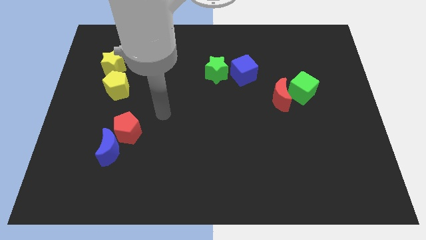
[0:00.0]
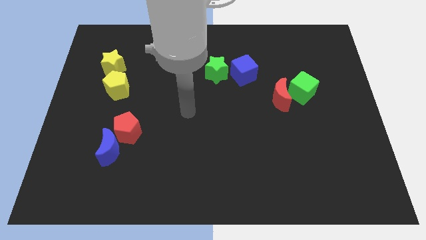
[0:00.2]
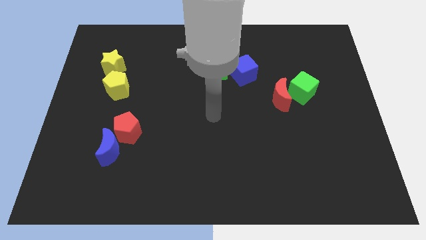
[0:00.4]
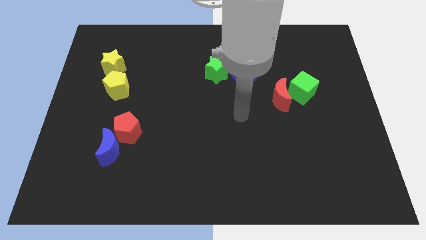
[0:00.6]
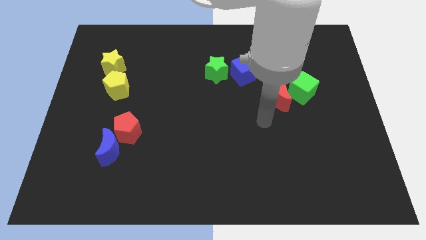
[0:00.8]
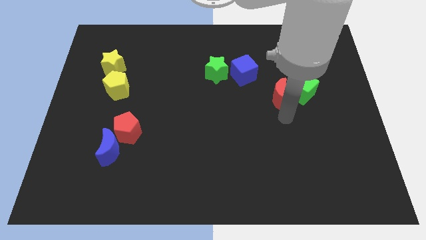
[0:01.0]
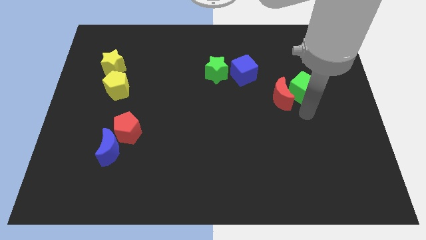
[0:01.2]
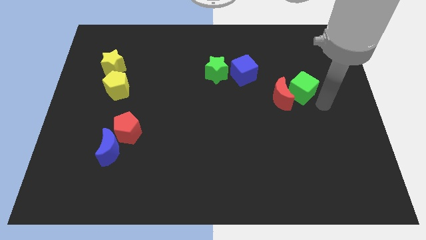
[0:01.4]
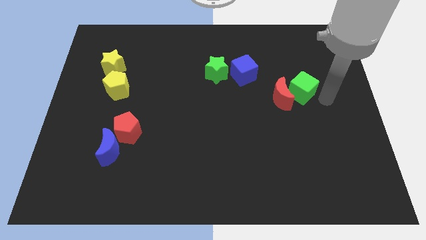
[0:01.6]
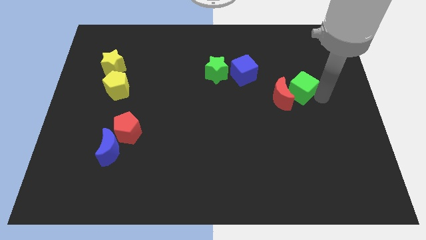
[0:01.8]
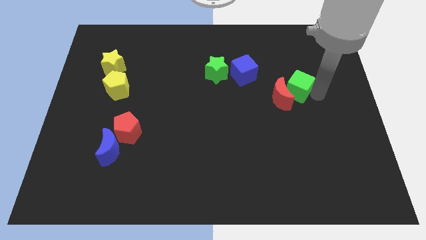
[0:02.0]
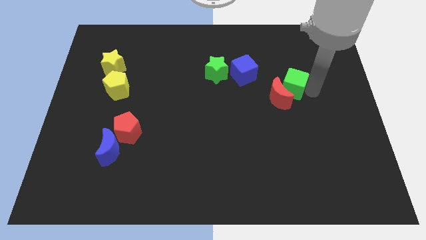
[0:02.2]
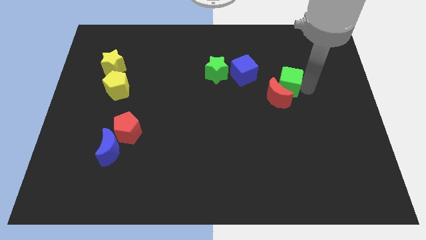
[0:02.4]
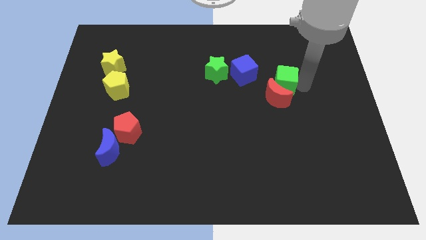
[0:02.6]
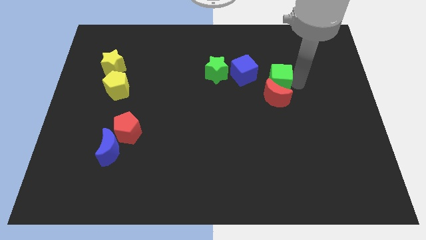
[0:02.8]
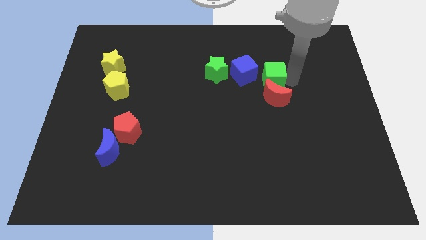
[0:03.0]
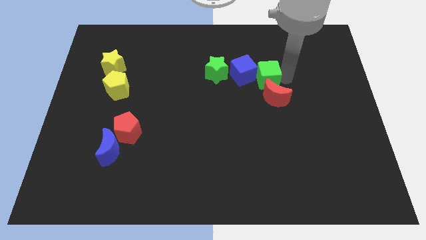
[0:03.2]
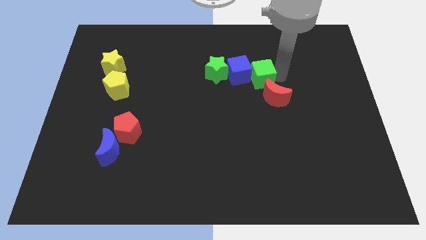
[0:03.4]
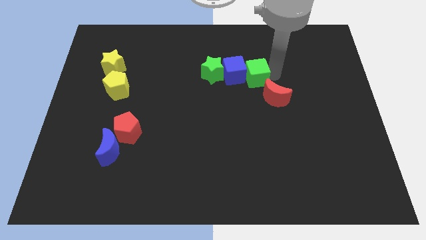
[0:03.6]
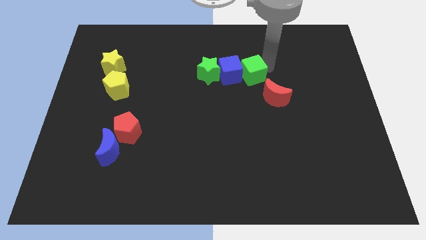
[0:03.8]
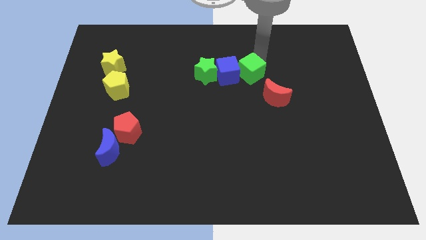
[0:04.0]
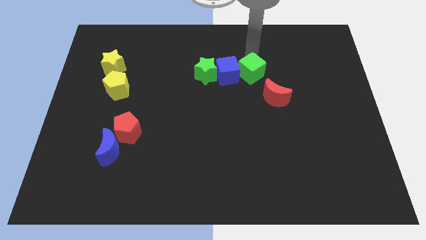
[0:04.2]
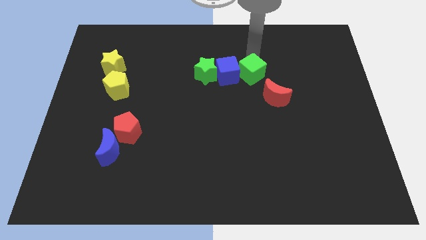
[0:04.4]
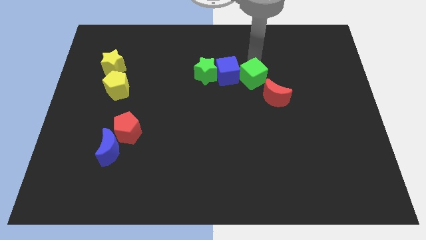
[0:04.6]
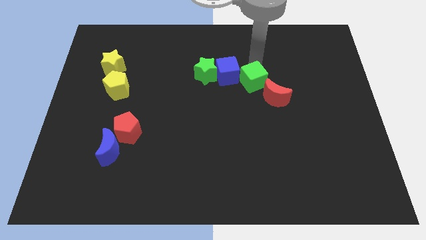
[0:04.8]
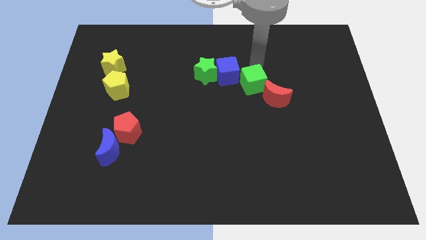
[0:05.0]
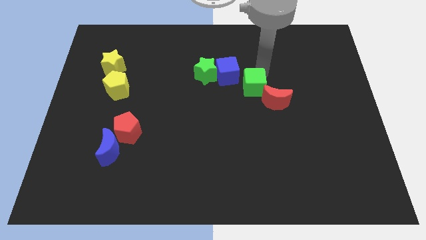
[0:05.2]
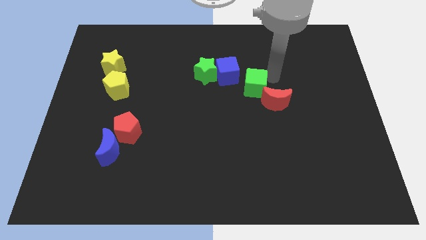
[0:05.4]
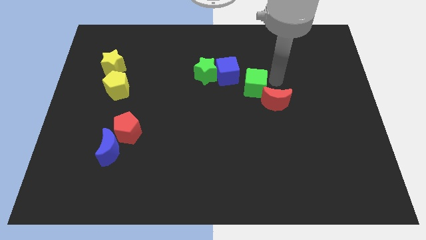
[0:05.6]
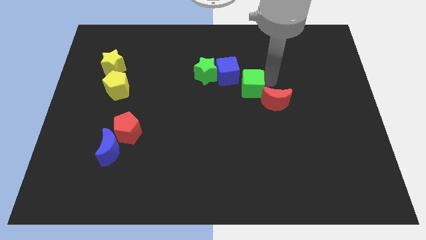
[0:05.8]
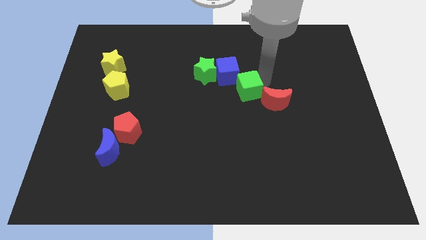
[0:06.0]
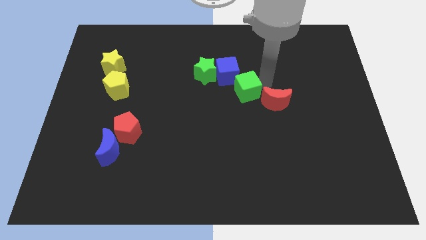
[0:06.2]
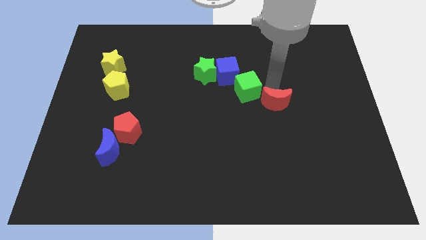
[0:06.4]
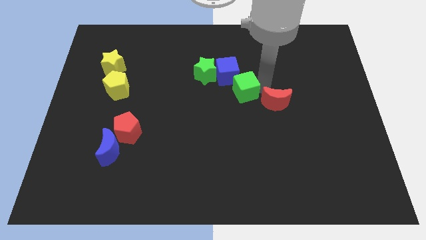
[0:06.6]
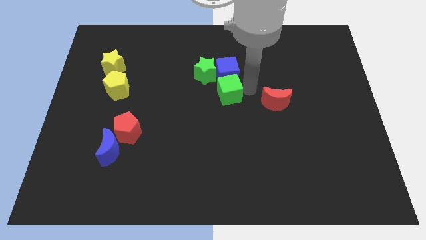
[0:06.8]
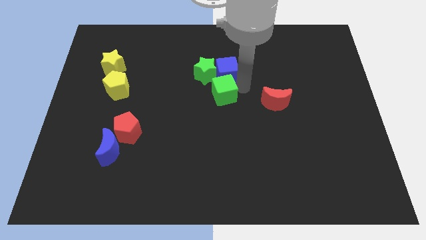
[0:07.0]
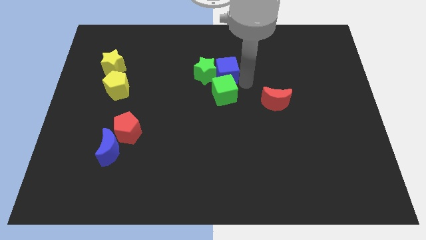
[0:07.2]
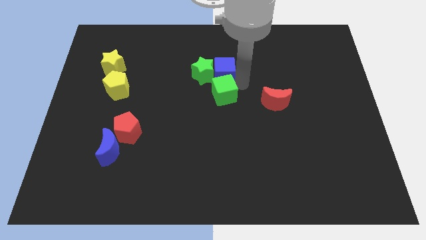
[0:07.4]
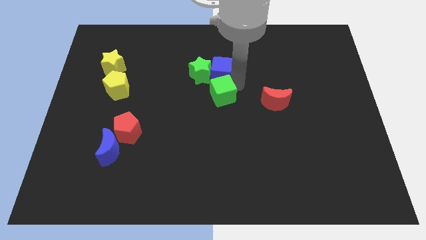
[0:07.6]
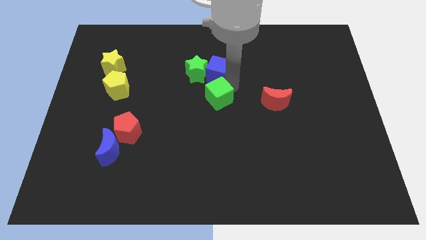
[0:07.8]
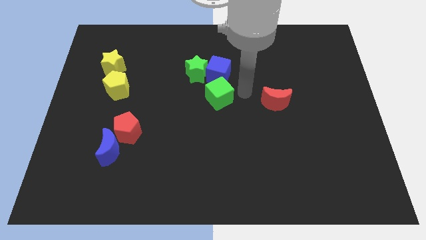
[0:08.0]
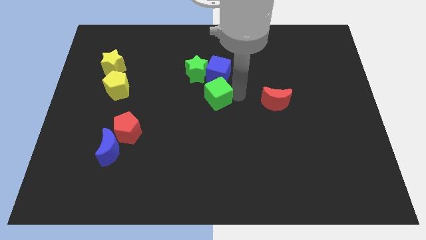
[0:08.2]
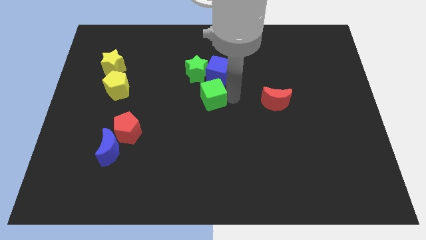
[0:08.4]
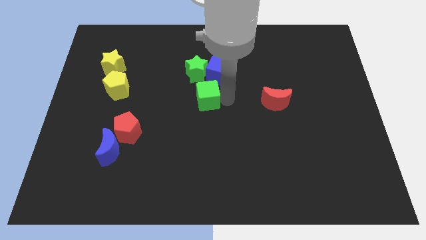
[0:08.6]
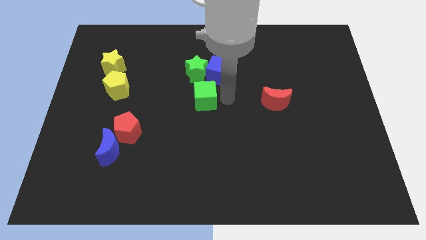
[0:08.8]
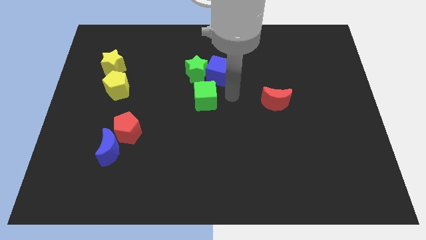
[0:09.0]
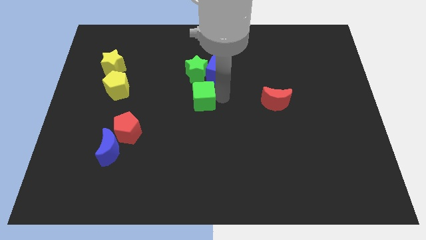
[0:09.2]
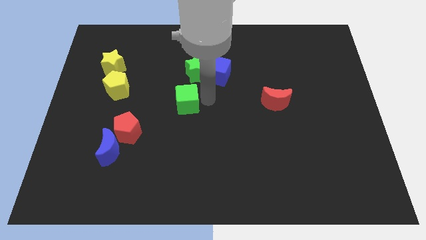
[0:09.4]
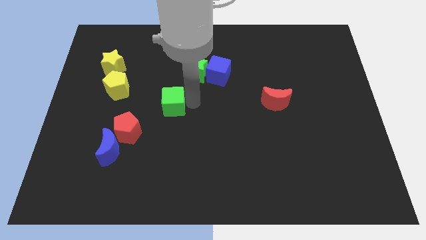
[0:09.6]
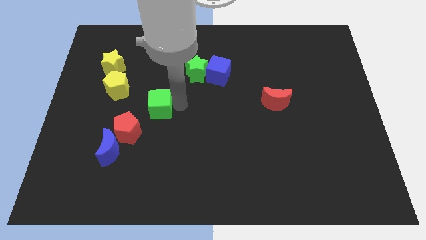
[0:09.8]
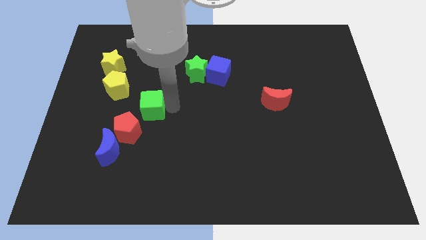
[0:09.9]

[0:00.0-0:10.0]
slide the green cube to the bottom right side of the yellow pentagon

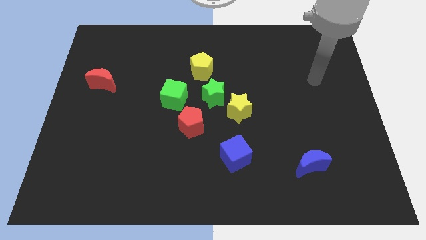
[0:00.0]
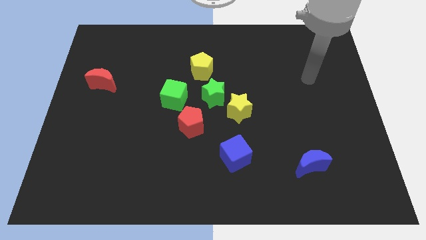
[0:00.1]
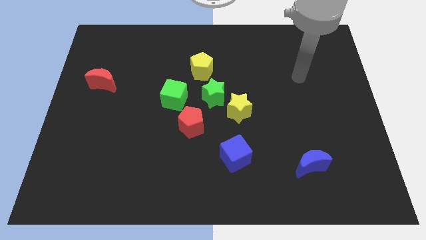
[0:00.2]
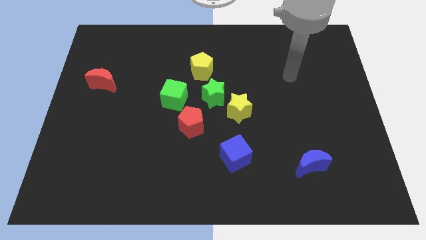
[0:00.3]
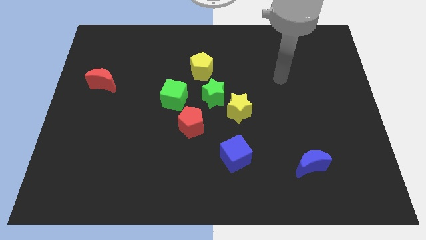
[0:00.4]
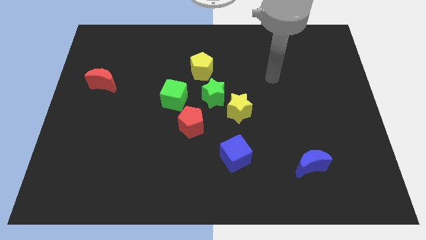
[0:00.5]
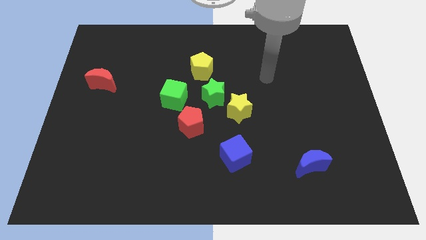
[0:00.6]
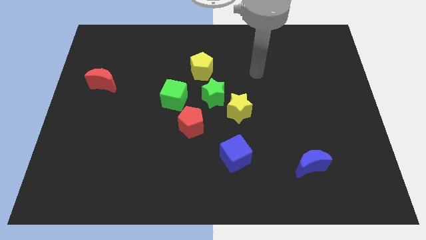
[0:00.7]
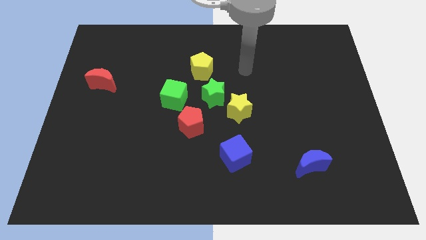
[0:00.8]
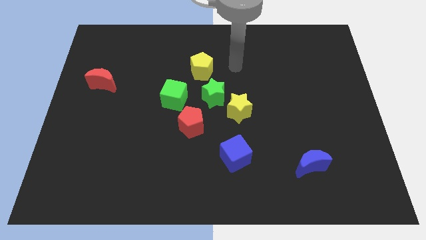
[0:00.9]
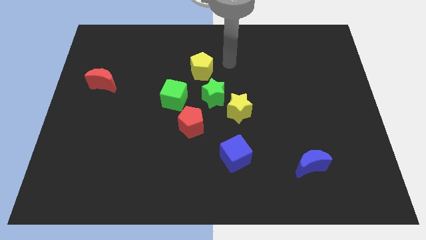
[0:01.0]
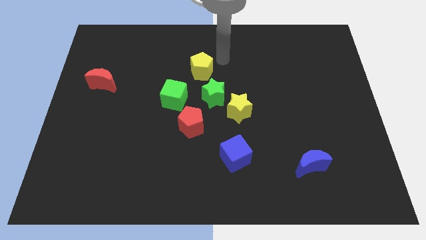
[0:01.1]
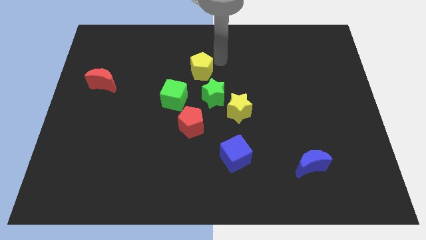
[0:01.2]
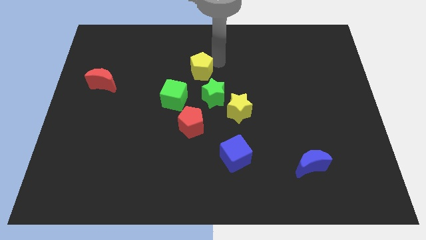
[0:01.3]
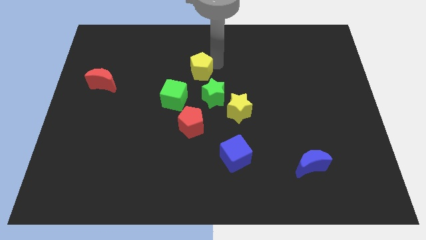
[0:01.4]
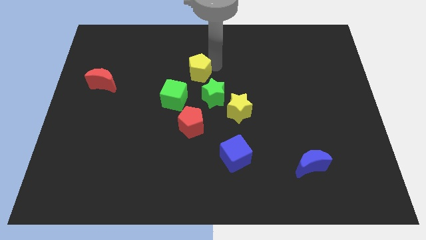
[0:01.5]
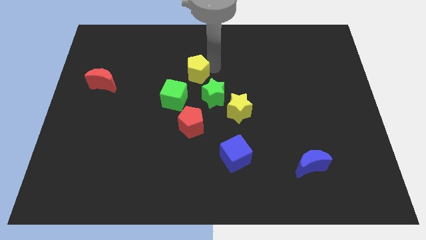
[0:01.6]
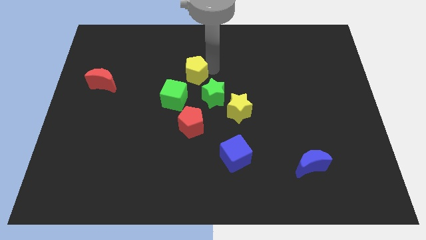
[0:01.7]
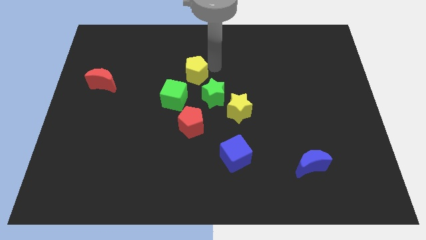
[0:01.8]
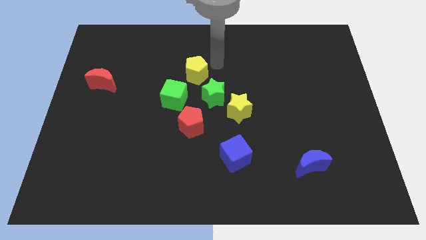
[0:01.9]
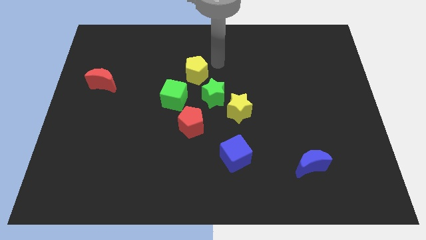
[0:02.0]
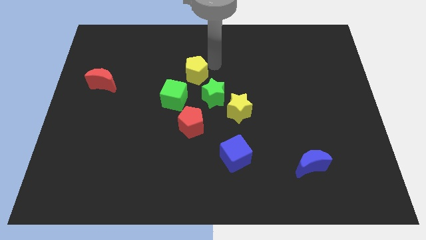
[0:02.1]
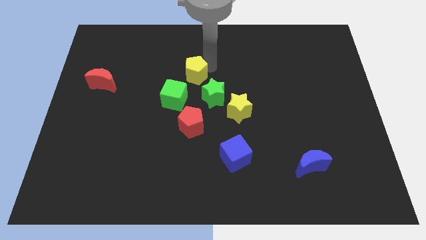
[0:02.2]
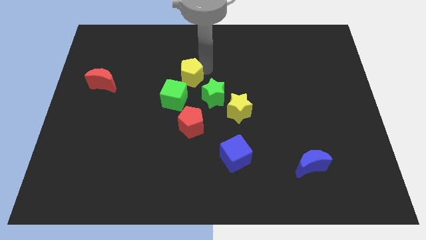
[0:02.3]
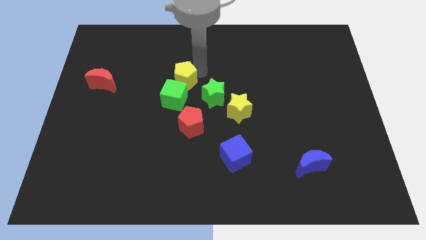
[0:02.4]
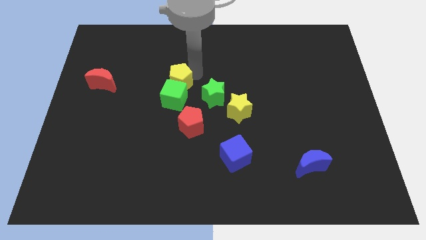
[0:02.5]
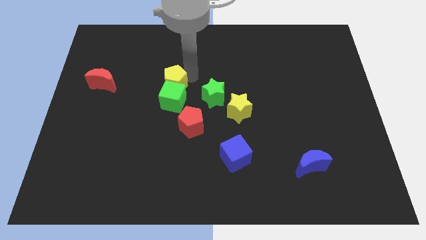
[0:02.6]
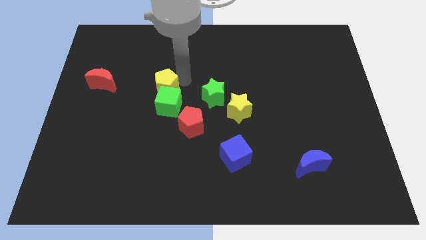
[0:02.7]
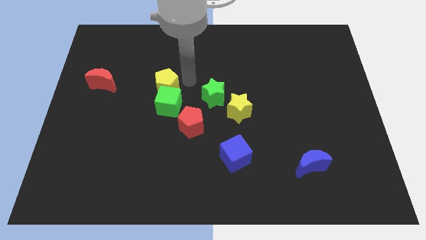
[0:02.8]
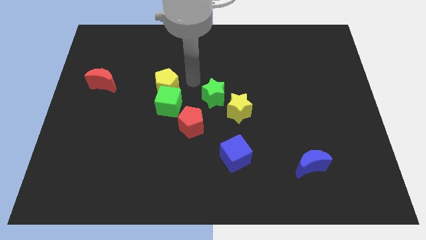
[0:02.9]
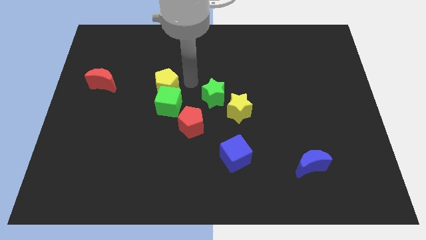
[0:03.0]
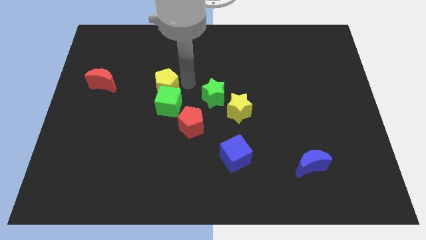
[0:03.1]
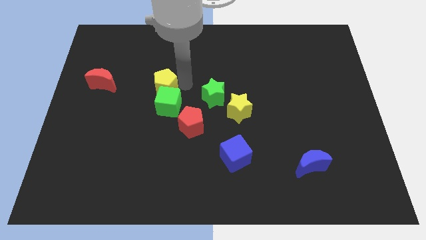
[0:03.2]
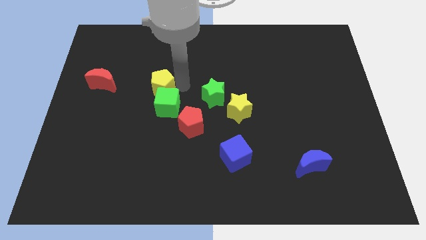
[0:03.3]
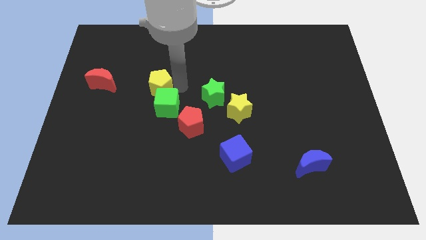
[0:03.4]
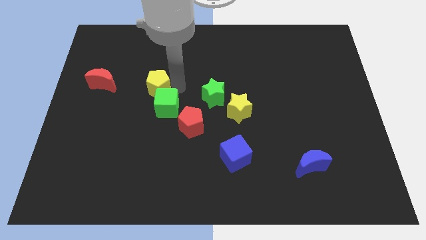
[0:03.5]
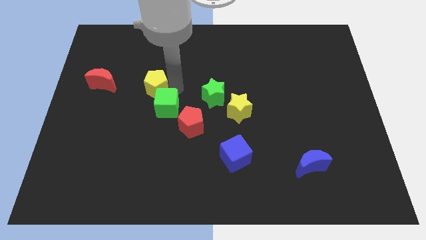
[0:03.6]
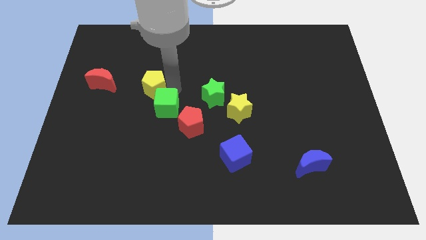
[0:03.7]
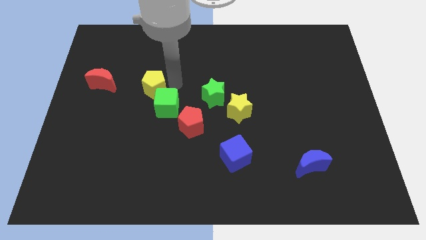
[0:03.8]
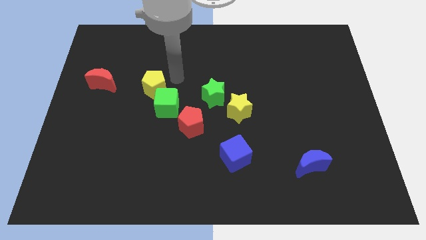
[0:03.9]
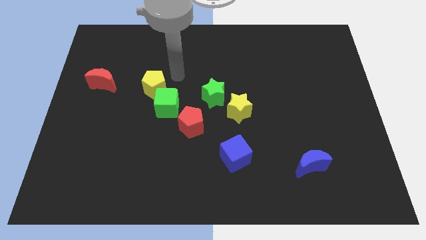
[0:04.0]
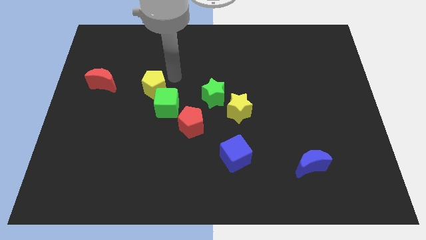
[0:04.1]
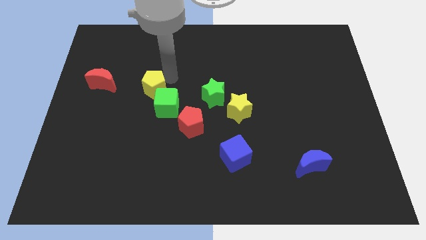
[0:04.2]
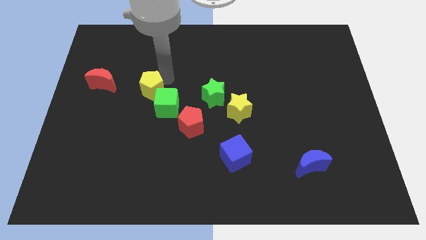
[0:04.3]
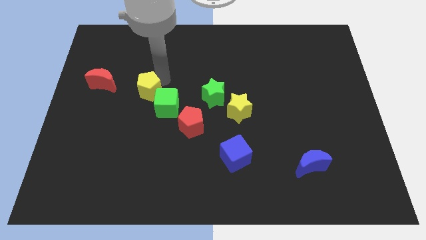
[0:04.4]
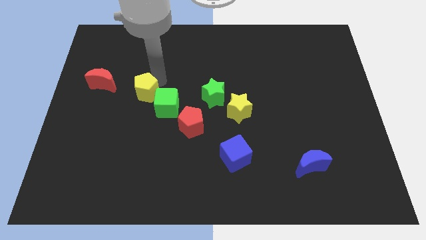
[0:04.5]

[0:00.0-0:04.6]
move the yellow pentagon to the left side of the green cube
